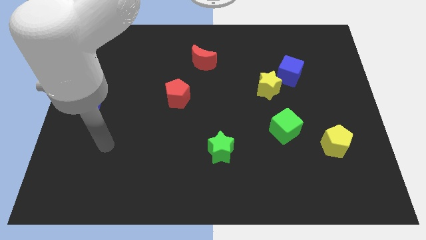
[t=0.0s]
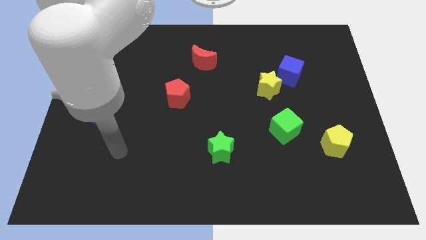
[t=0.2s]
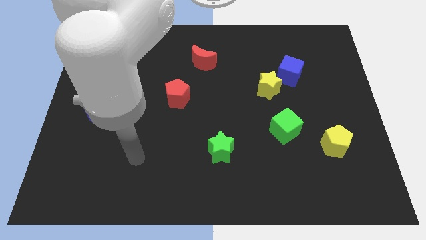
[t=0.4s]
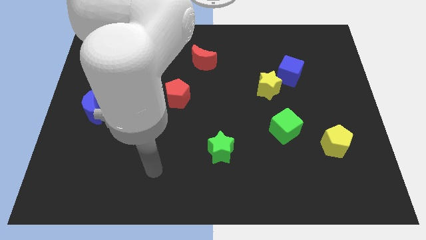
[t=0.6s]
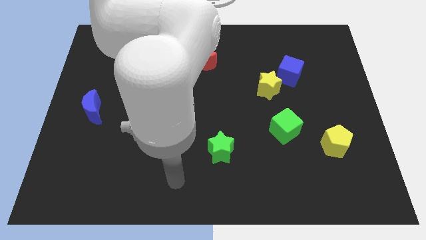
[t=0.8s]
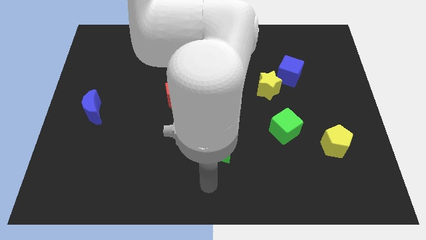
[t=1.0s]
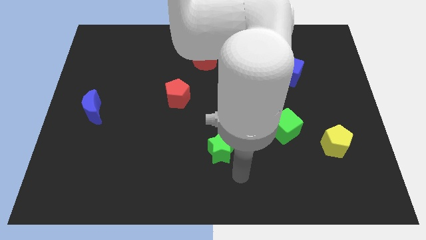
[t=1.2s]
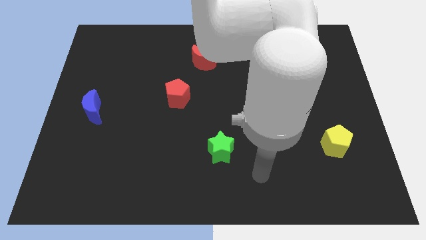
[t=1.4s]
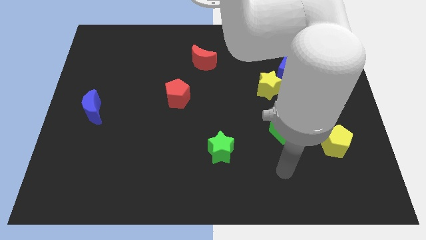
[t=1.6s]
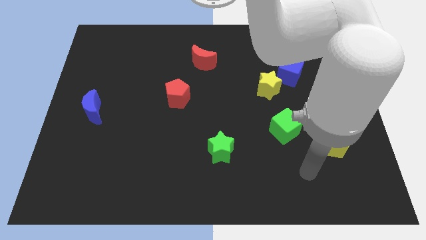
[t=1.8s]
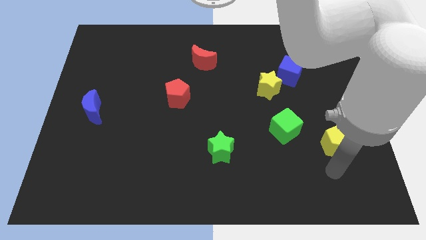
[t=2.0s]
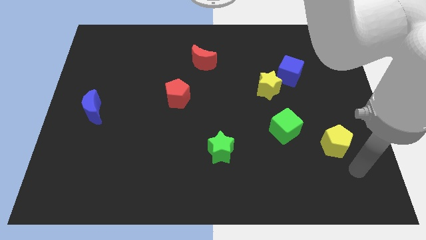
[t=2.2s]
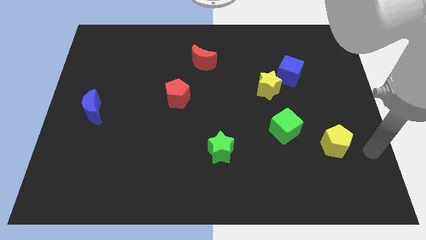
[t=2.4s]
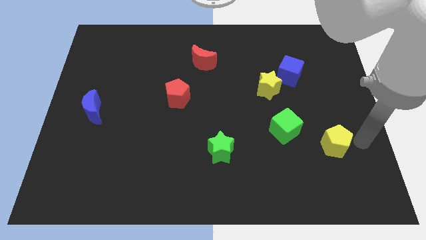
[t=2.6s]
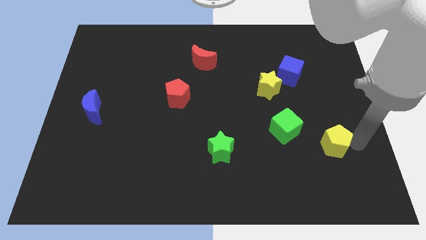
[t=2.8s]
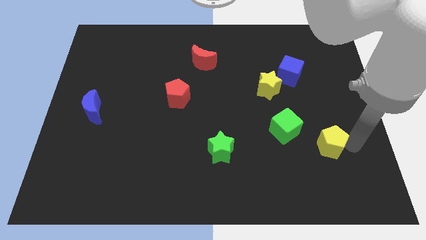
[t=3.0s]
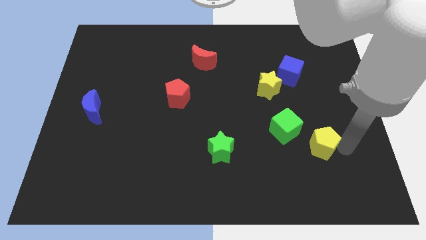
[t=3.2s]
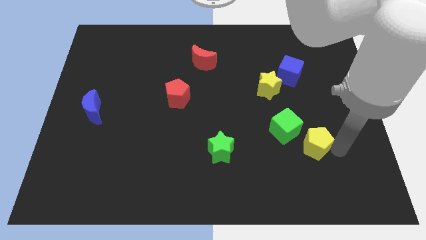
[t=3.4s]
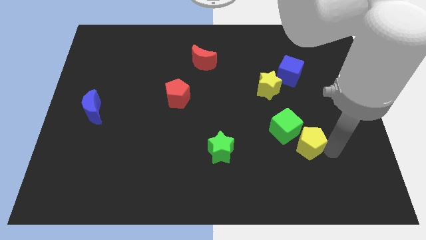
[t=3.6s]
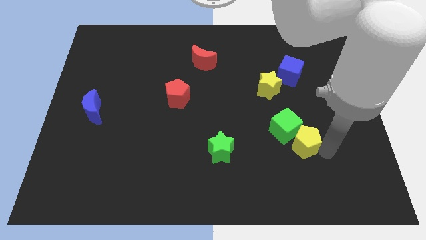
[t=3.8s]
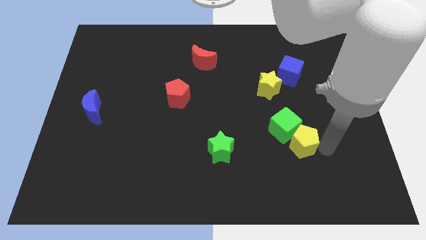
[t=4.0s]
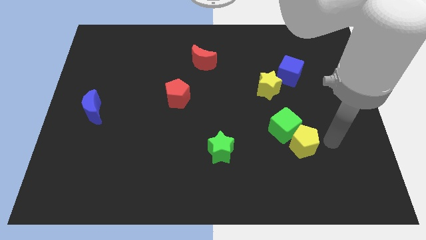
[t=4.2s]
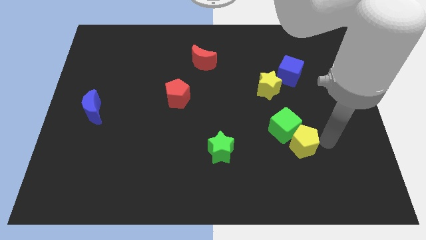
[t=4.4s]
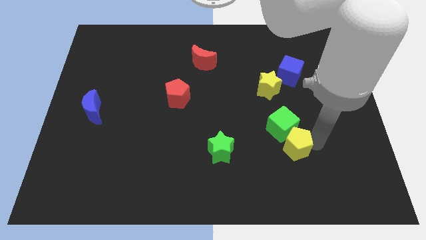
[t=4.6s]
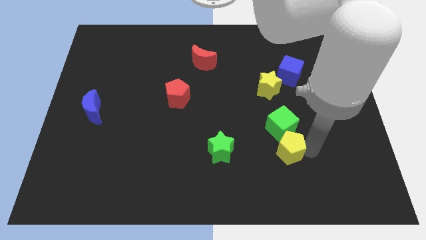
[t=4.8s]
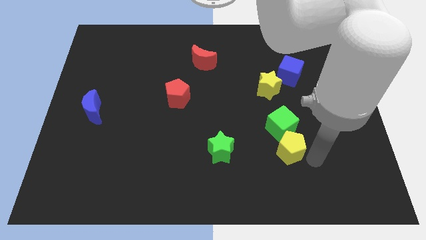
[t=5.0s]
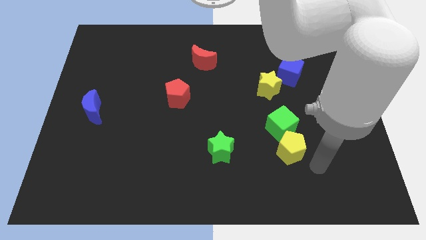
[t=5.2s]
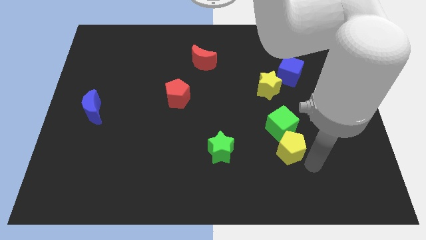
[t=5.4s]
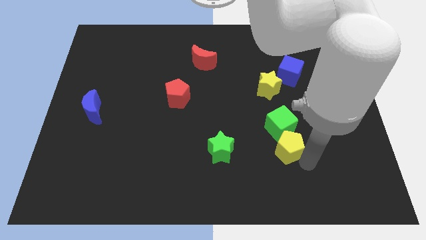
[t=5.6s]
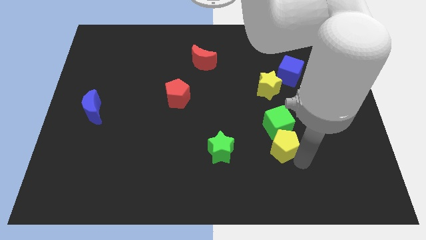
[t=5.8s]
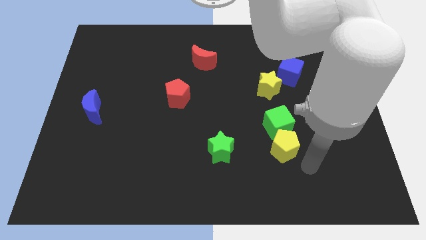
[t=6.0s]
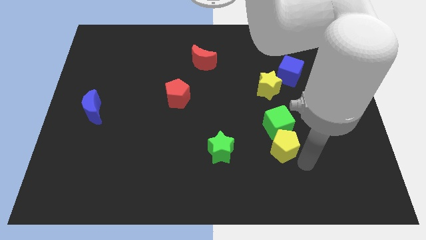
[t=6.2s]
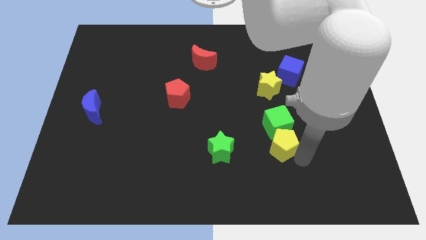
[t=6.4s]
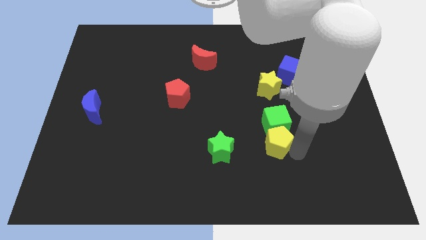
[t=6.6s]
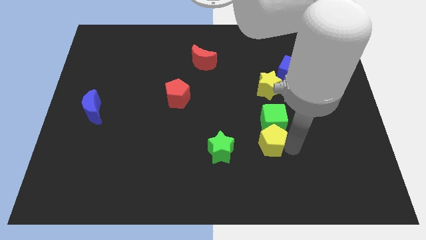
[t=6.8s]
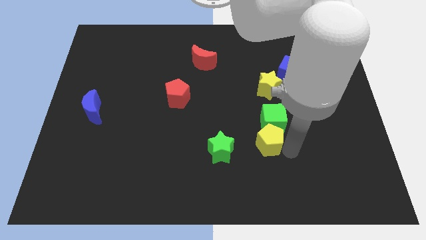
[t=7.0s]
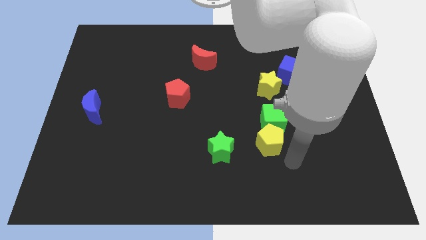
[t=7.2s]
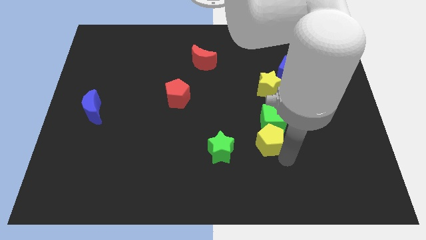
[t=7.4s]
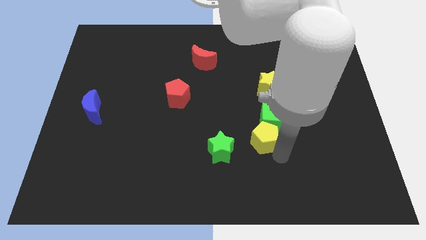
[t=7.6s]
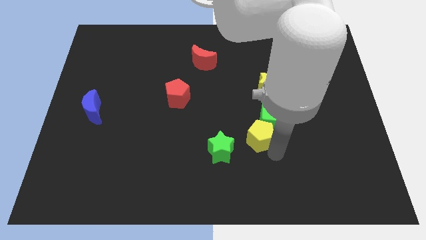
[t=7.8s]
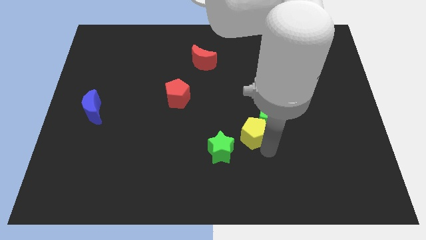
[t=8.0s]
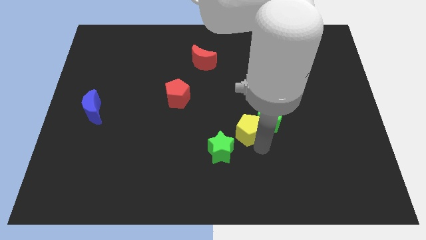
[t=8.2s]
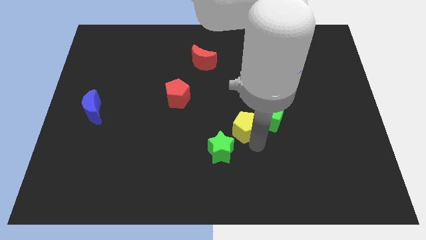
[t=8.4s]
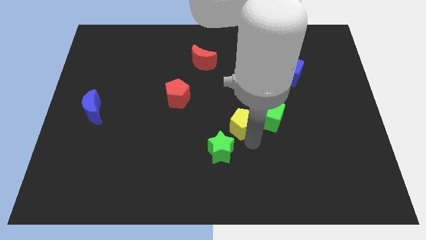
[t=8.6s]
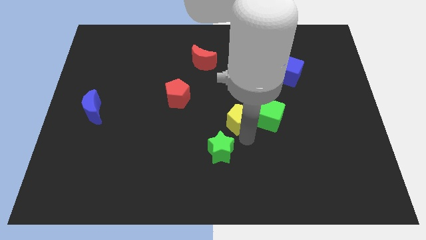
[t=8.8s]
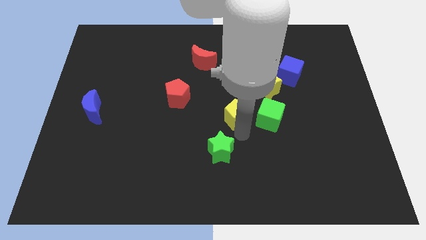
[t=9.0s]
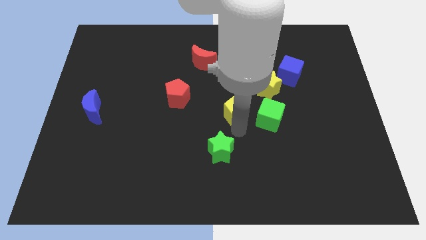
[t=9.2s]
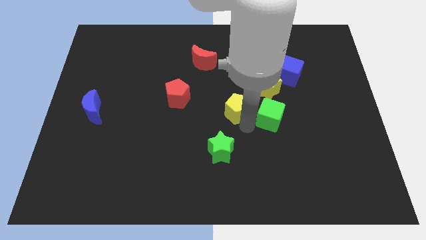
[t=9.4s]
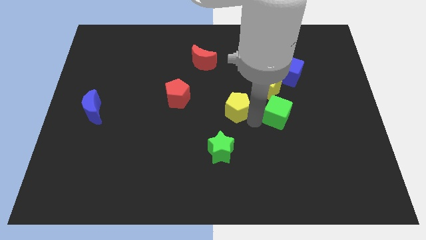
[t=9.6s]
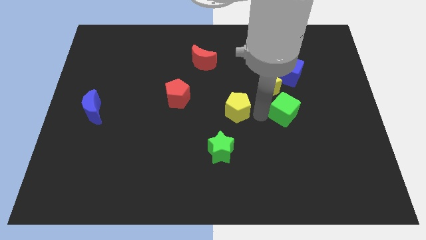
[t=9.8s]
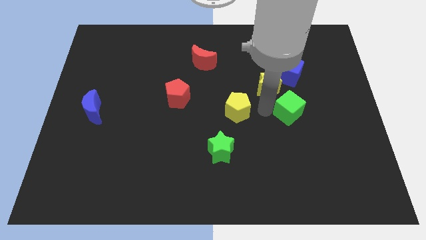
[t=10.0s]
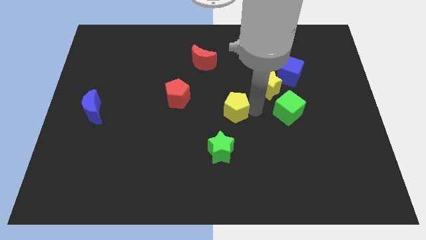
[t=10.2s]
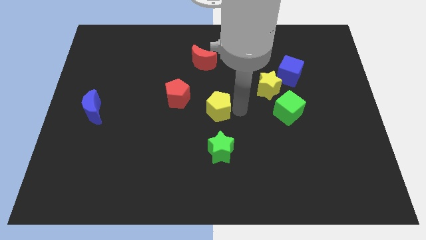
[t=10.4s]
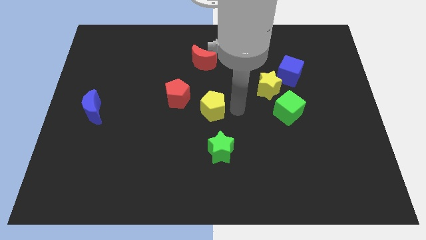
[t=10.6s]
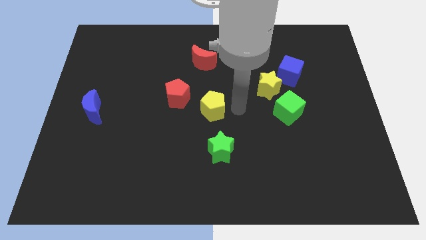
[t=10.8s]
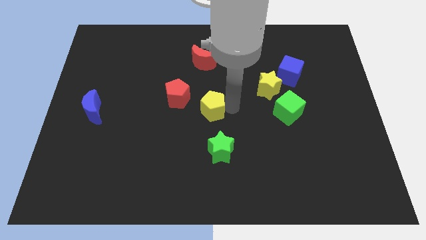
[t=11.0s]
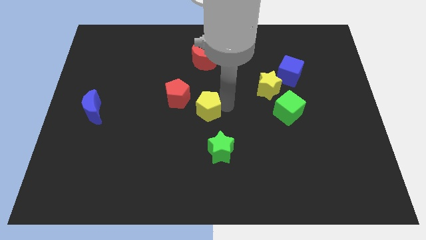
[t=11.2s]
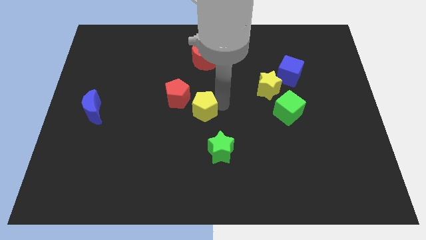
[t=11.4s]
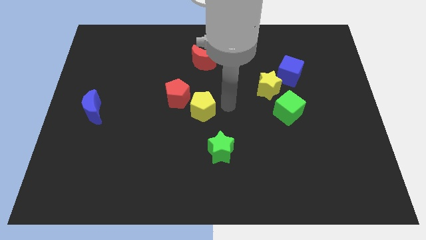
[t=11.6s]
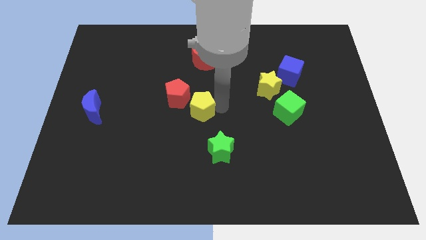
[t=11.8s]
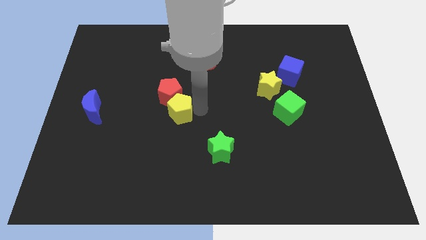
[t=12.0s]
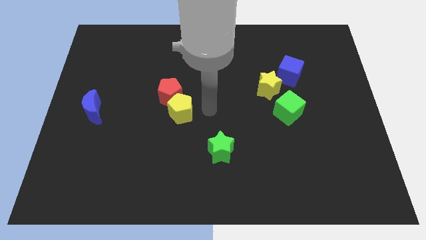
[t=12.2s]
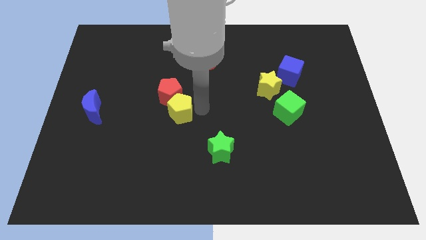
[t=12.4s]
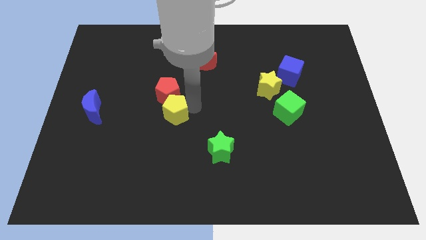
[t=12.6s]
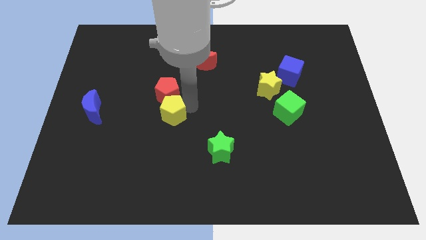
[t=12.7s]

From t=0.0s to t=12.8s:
slide the yellow pentagon diagonally down and to the left of the red pentagon
